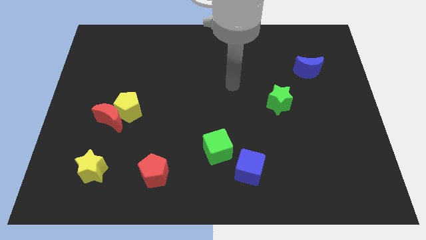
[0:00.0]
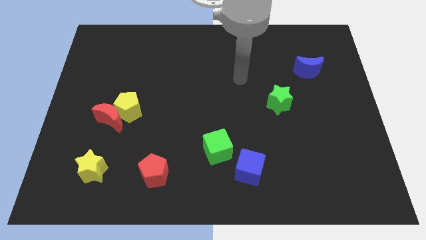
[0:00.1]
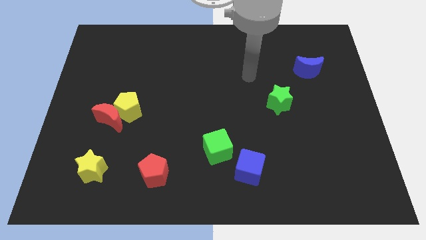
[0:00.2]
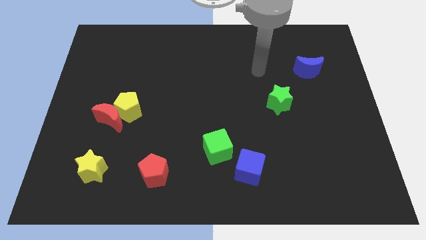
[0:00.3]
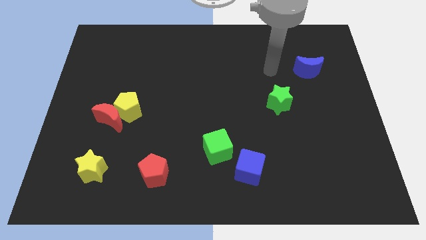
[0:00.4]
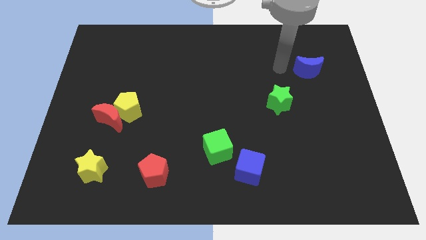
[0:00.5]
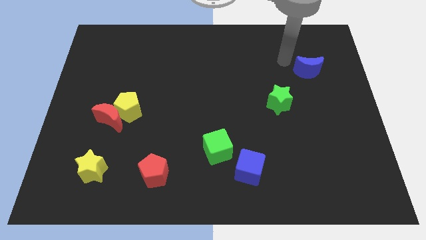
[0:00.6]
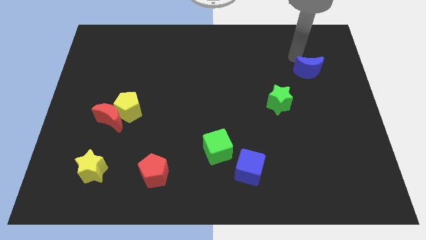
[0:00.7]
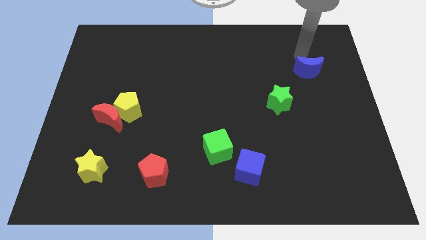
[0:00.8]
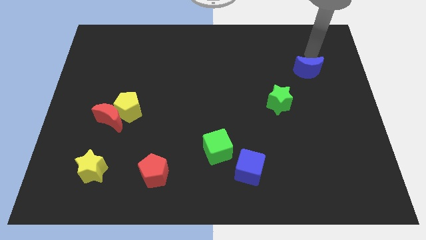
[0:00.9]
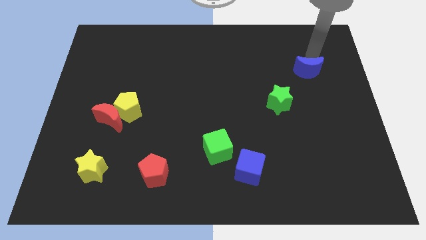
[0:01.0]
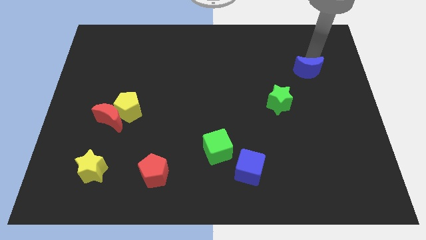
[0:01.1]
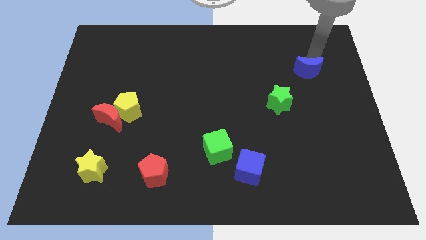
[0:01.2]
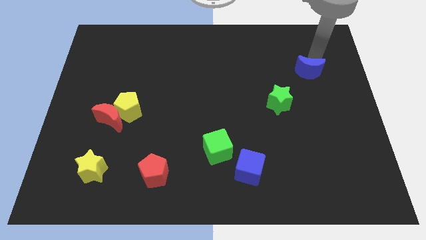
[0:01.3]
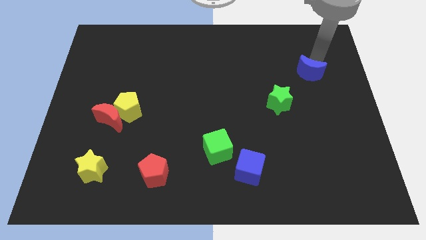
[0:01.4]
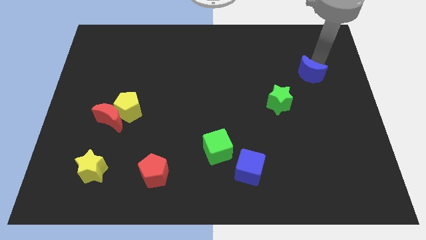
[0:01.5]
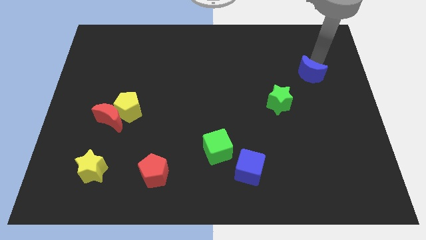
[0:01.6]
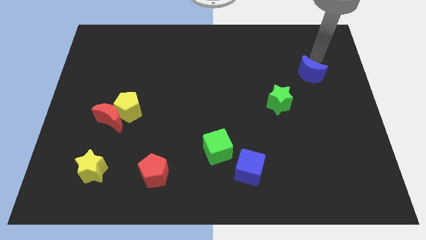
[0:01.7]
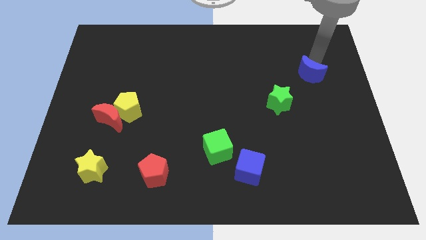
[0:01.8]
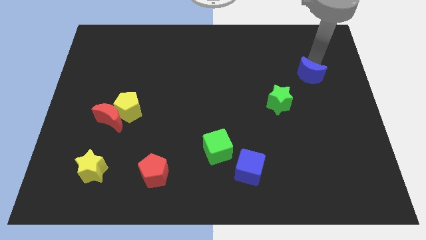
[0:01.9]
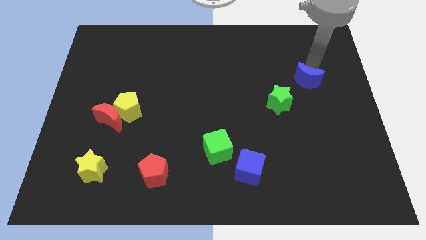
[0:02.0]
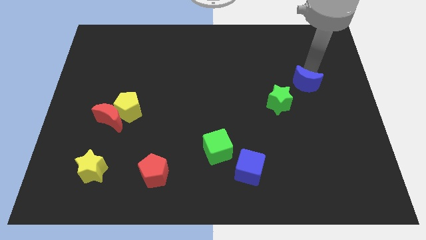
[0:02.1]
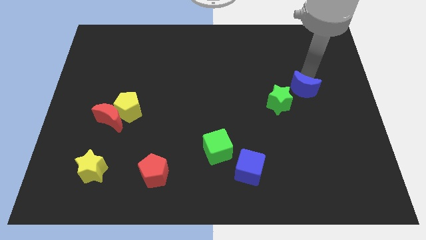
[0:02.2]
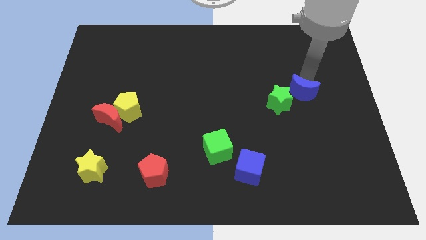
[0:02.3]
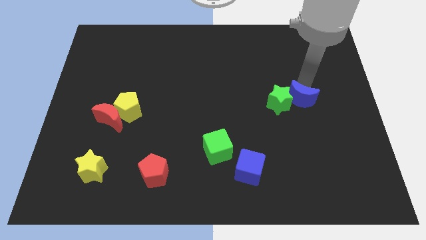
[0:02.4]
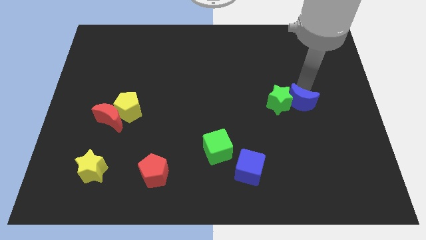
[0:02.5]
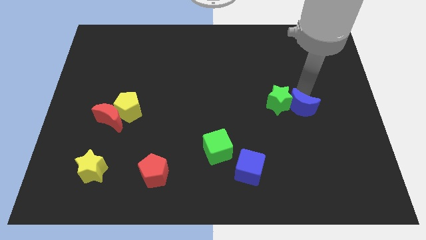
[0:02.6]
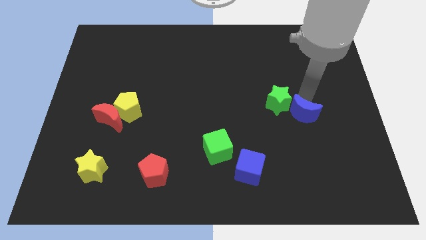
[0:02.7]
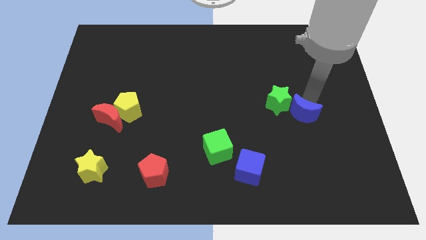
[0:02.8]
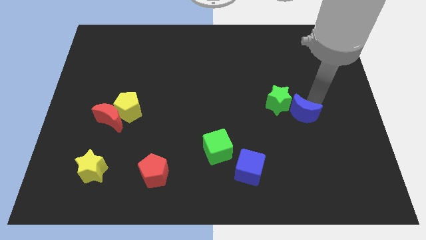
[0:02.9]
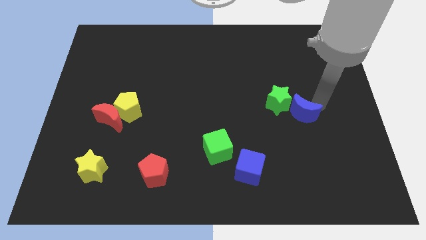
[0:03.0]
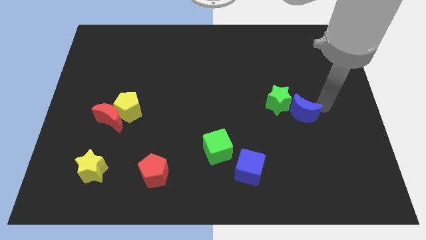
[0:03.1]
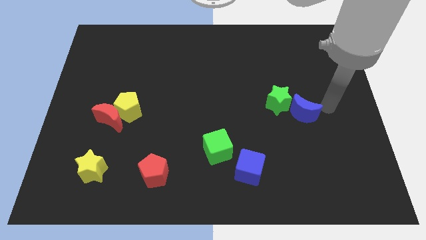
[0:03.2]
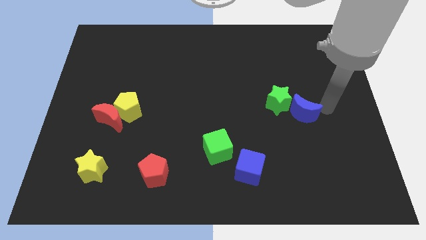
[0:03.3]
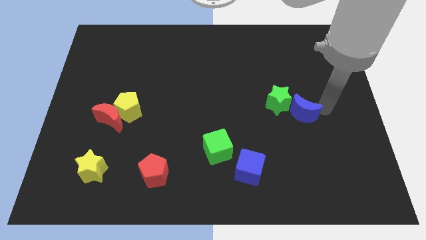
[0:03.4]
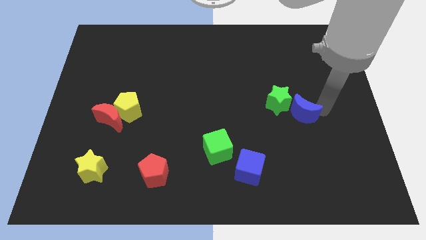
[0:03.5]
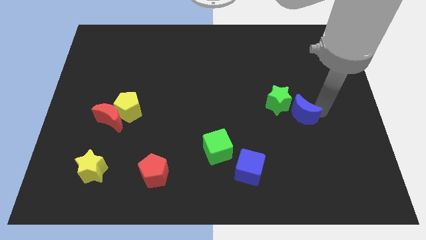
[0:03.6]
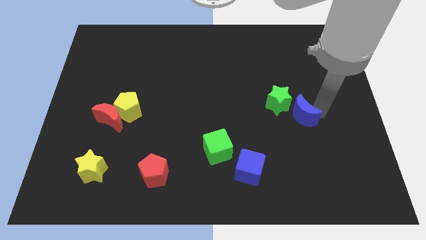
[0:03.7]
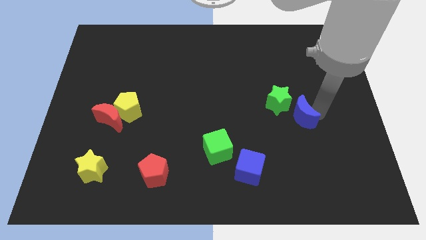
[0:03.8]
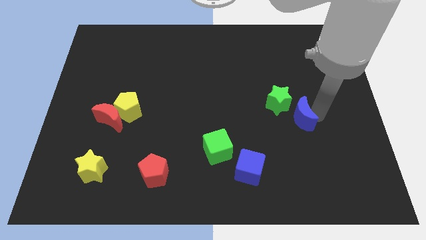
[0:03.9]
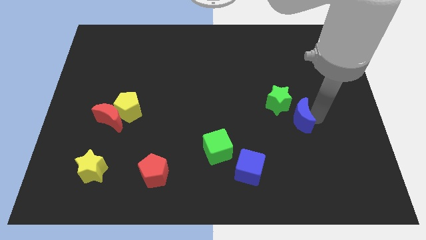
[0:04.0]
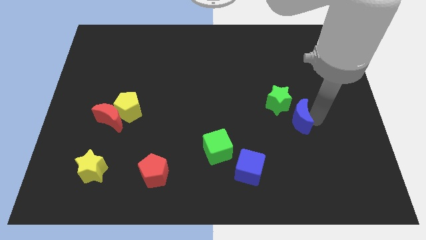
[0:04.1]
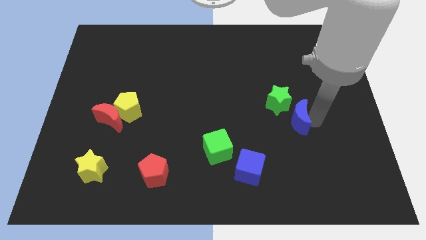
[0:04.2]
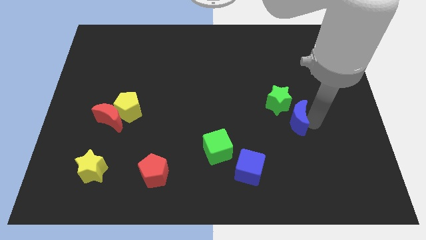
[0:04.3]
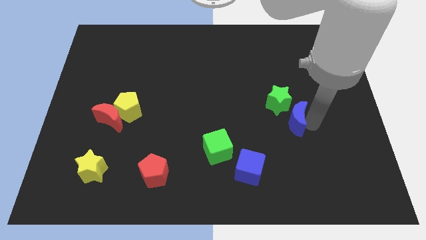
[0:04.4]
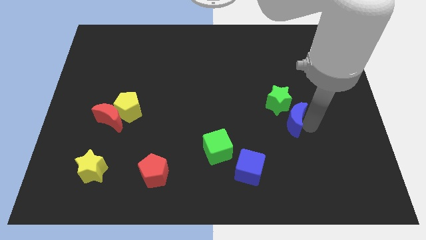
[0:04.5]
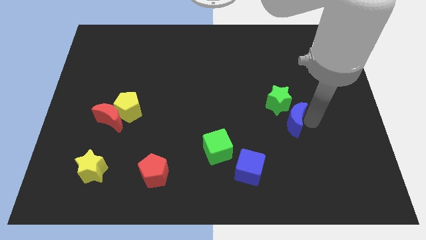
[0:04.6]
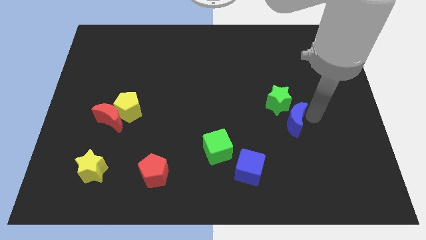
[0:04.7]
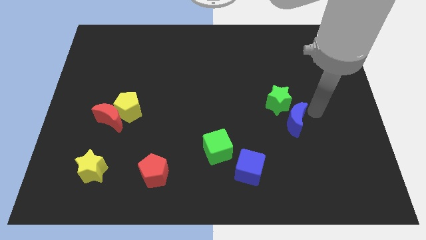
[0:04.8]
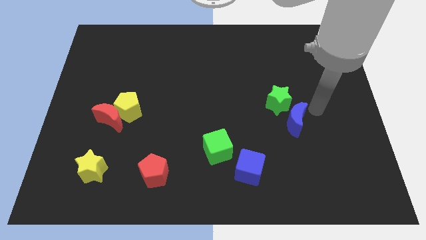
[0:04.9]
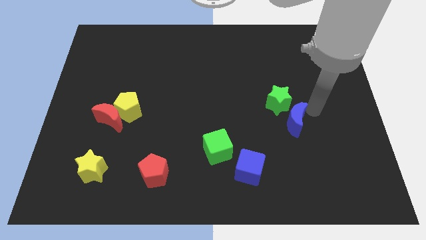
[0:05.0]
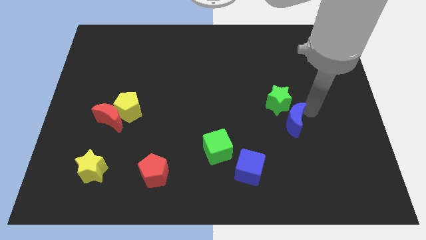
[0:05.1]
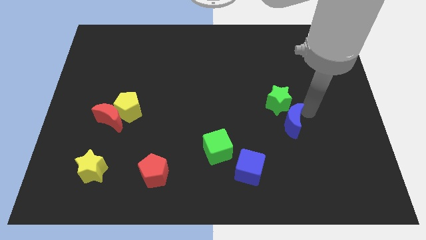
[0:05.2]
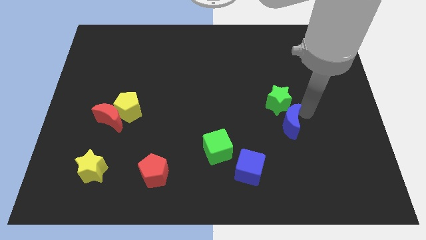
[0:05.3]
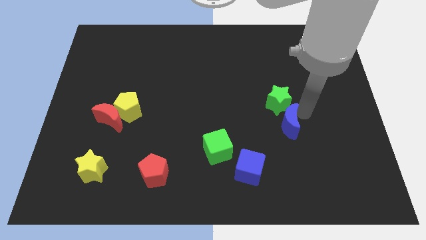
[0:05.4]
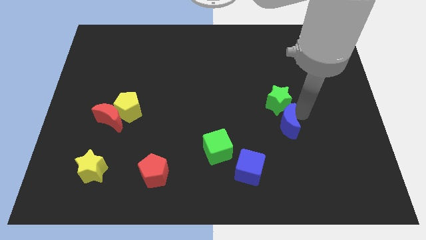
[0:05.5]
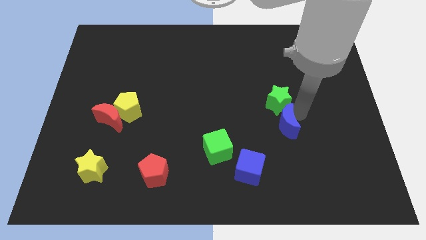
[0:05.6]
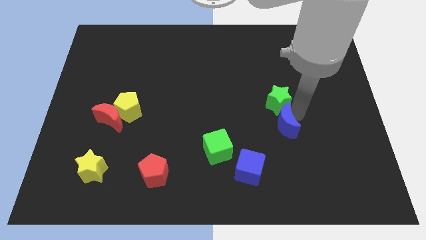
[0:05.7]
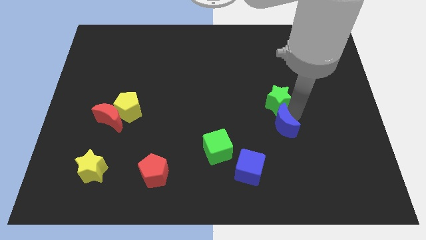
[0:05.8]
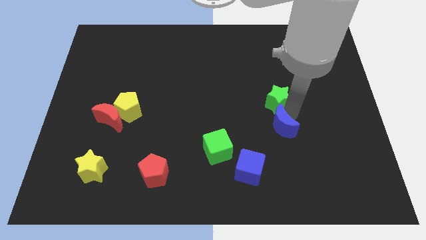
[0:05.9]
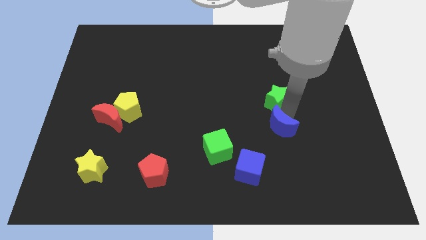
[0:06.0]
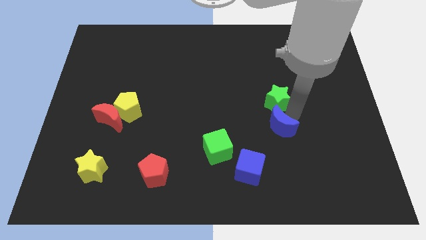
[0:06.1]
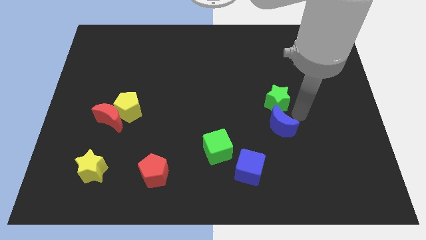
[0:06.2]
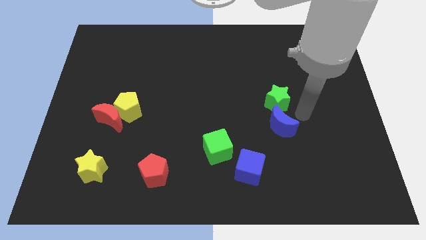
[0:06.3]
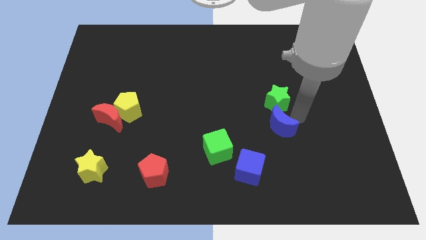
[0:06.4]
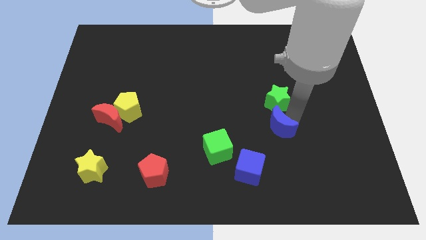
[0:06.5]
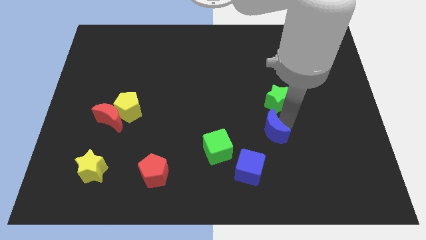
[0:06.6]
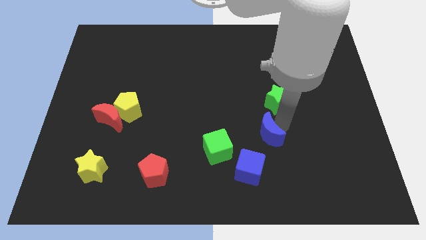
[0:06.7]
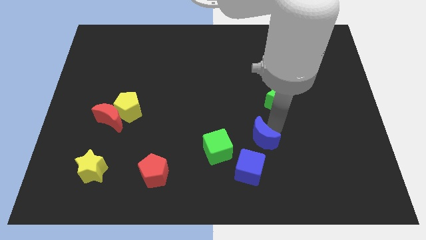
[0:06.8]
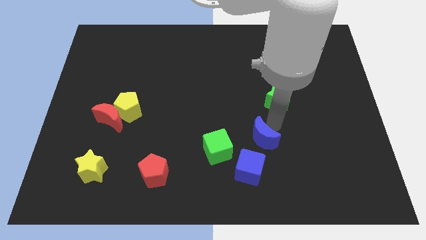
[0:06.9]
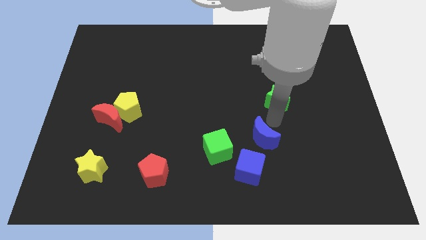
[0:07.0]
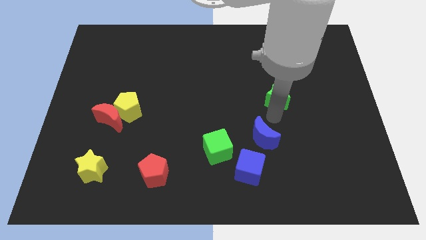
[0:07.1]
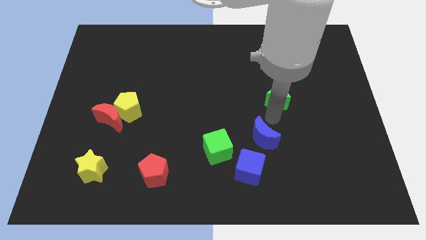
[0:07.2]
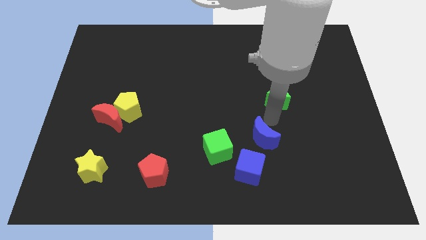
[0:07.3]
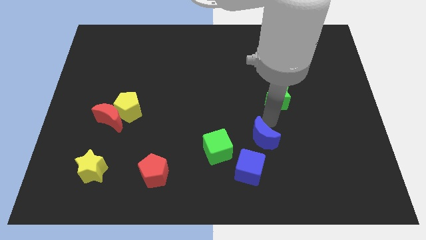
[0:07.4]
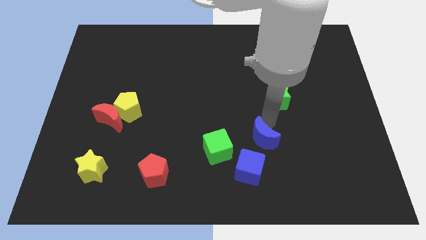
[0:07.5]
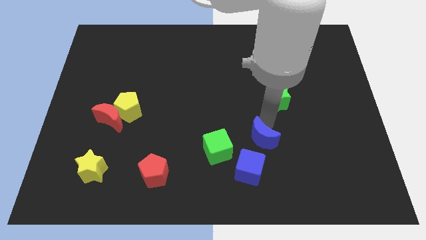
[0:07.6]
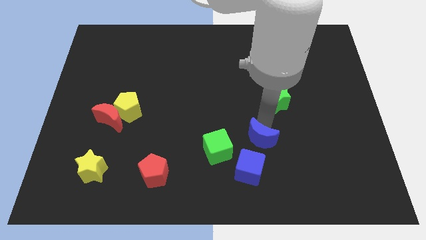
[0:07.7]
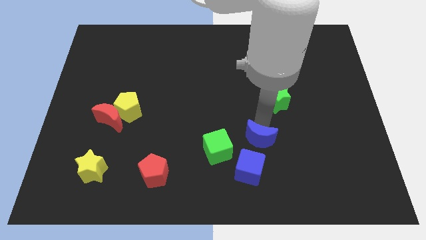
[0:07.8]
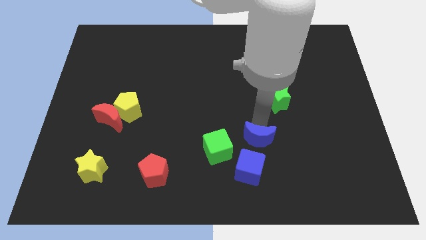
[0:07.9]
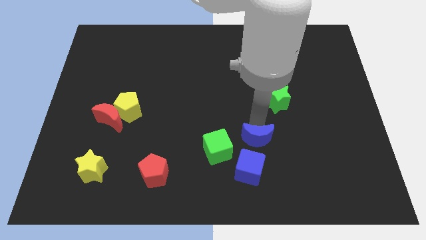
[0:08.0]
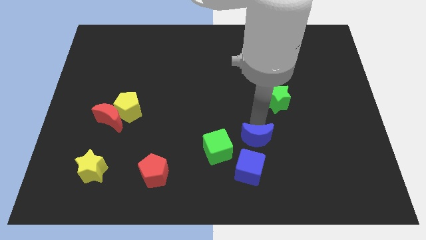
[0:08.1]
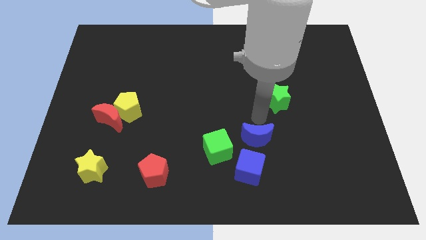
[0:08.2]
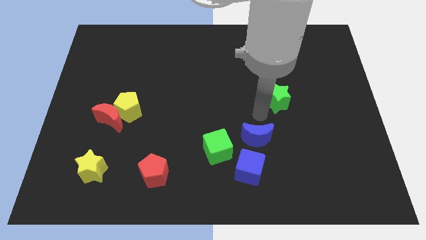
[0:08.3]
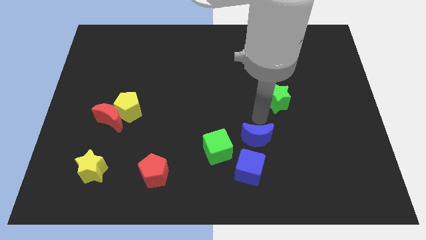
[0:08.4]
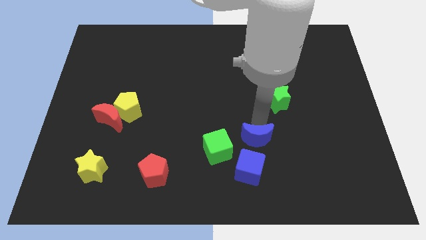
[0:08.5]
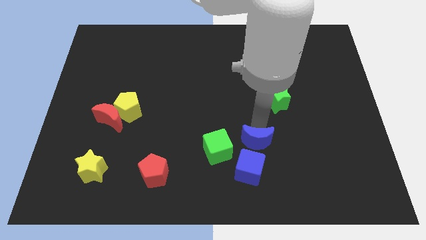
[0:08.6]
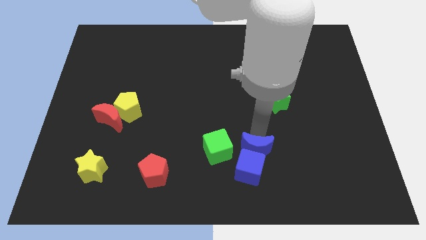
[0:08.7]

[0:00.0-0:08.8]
put the blue moon to the blue cube
